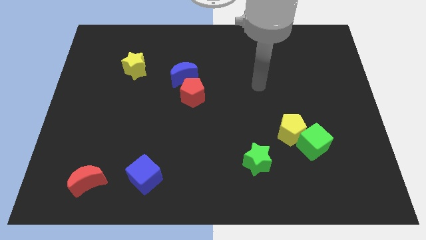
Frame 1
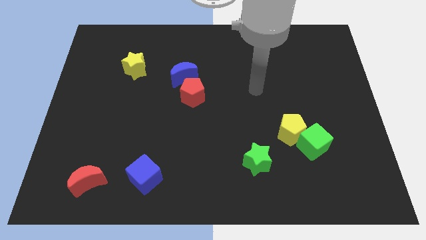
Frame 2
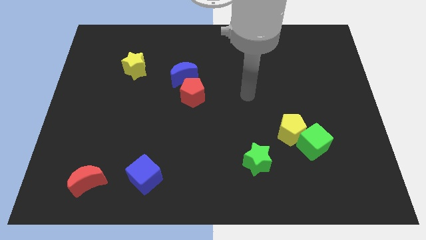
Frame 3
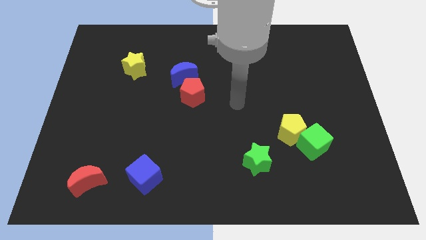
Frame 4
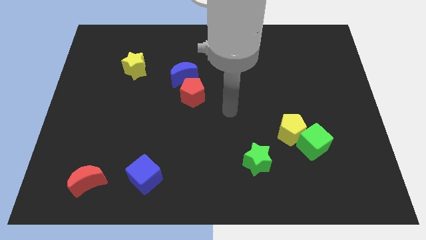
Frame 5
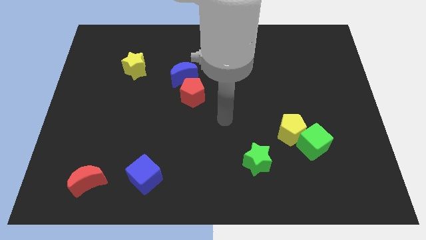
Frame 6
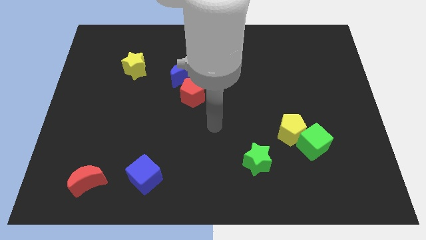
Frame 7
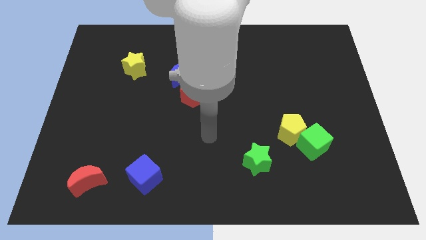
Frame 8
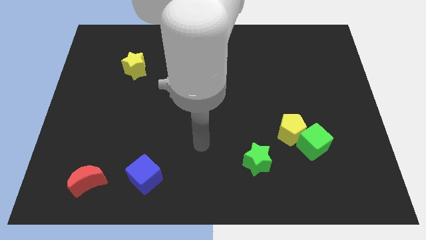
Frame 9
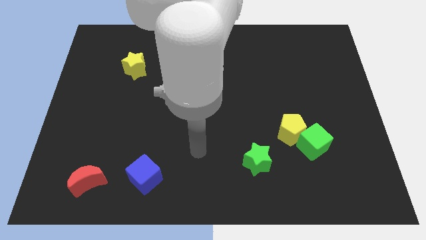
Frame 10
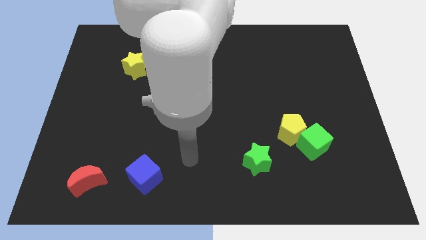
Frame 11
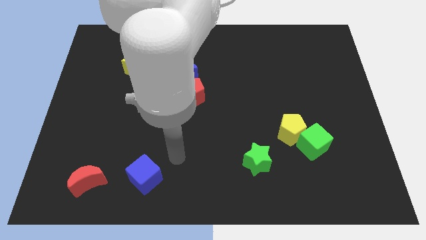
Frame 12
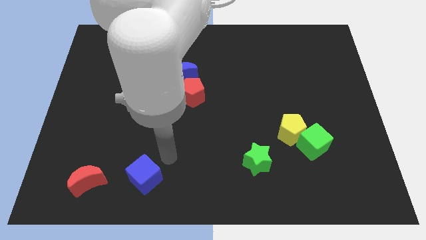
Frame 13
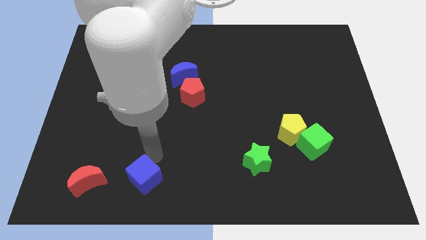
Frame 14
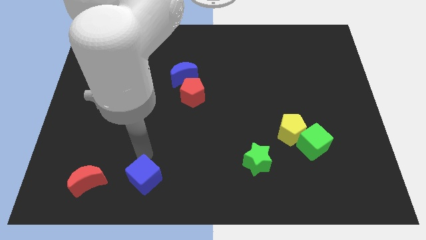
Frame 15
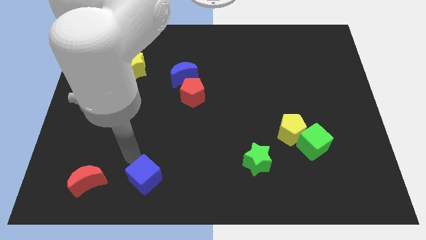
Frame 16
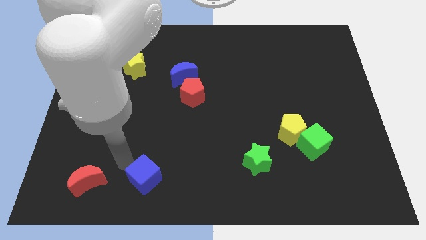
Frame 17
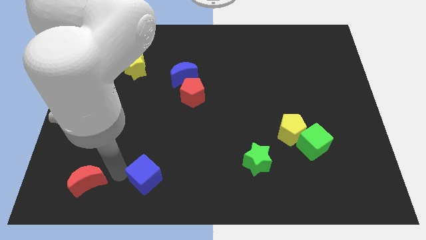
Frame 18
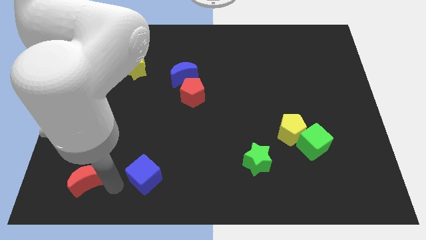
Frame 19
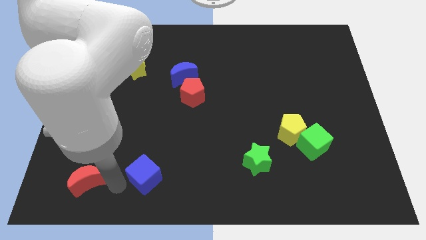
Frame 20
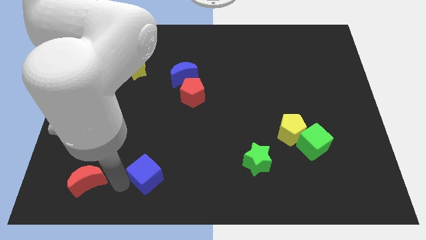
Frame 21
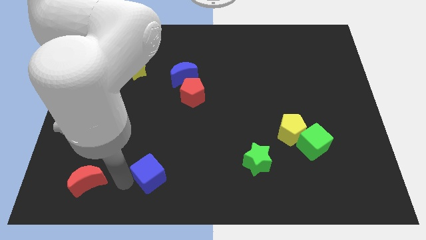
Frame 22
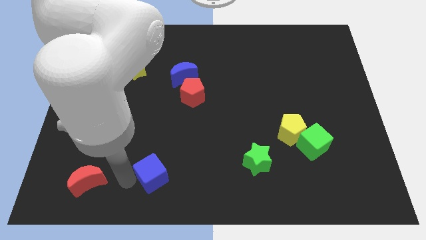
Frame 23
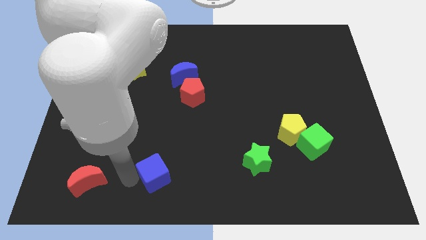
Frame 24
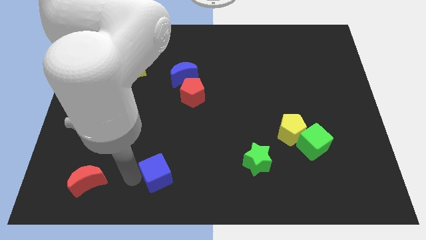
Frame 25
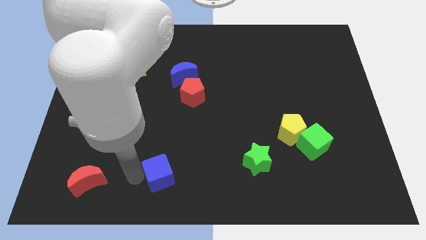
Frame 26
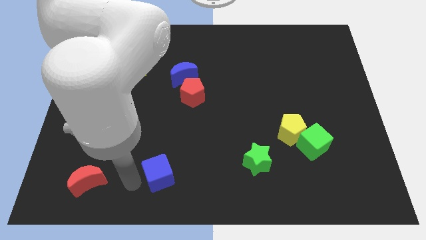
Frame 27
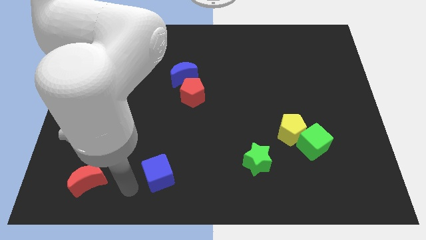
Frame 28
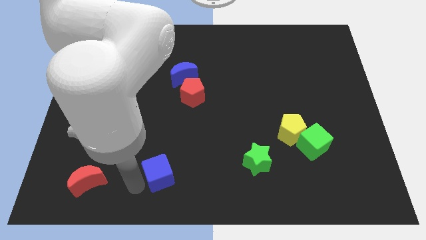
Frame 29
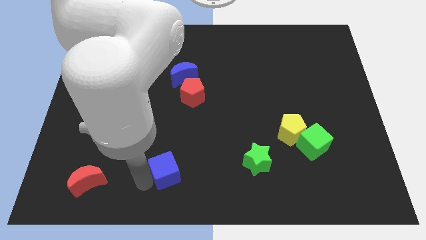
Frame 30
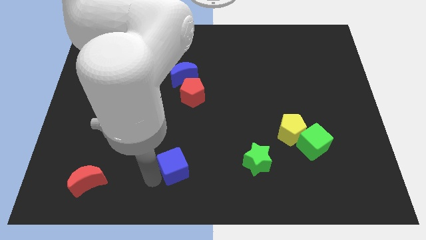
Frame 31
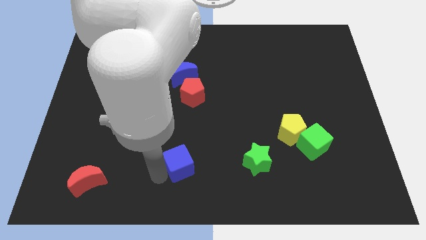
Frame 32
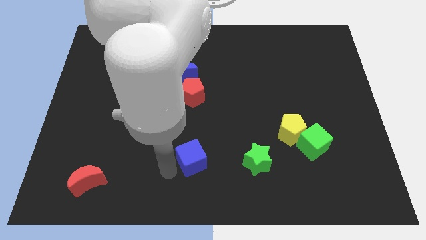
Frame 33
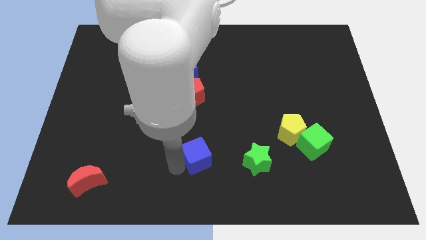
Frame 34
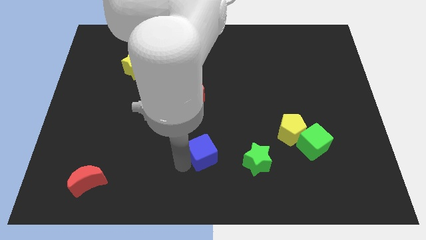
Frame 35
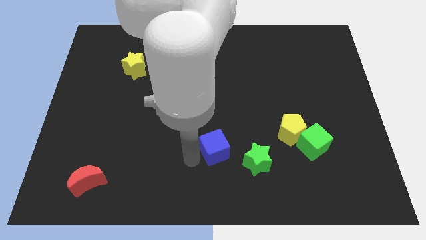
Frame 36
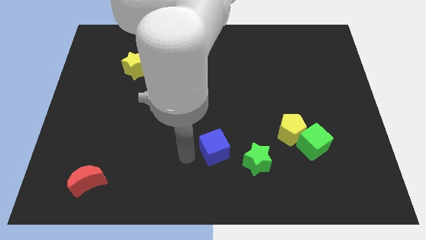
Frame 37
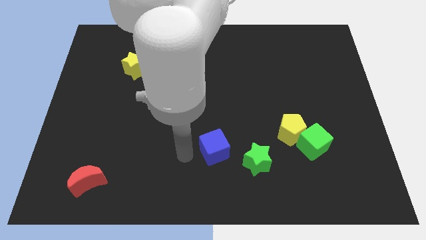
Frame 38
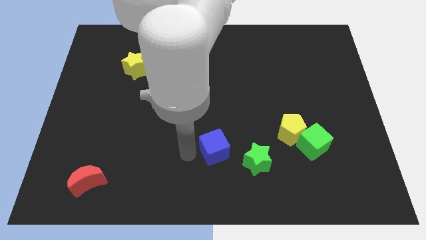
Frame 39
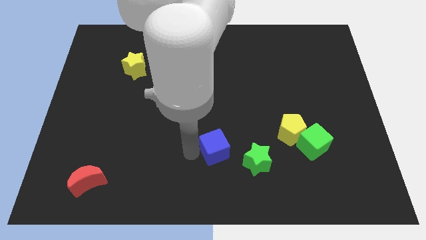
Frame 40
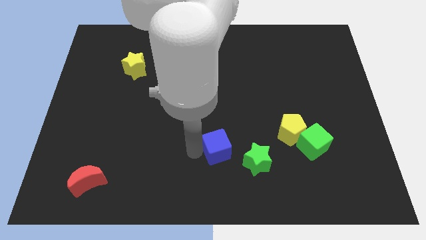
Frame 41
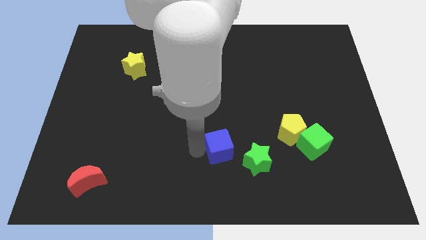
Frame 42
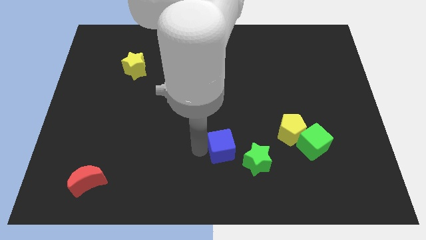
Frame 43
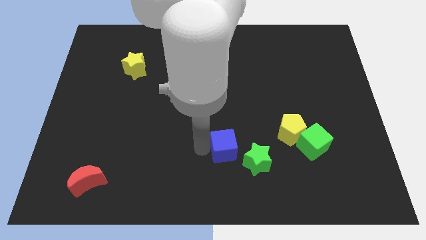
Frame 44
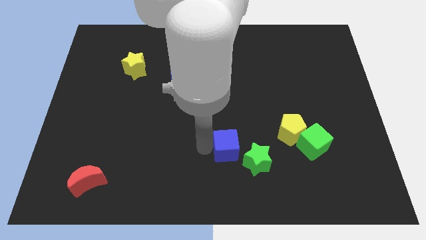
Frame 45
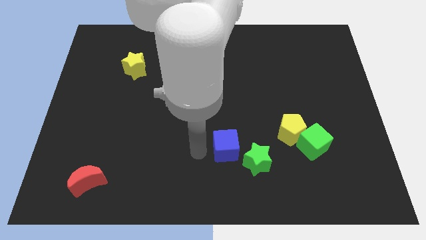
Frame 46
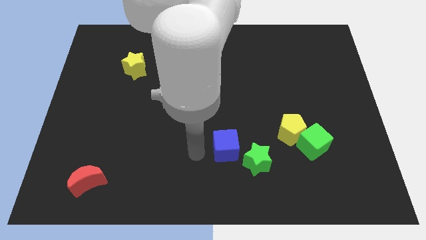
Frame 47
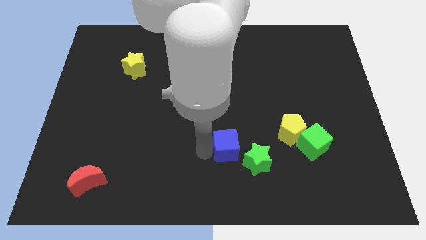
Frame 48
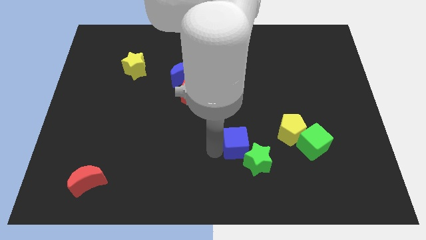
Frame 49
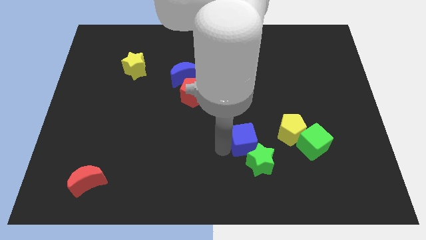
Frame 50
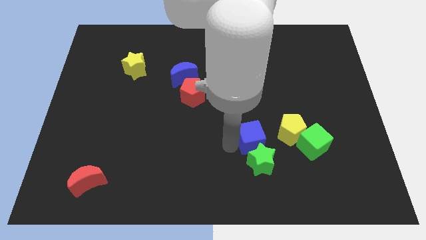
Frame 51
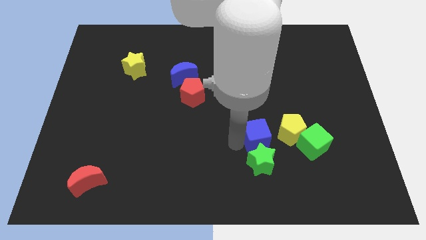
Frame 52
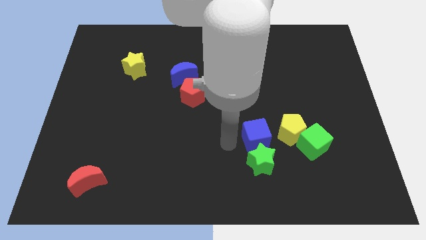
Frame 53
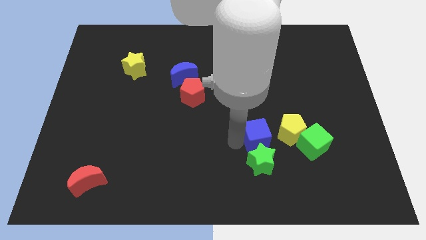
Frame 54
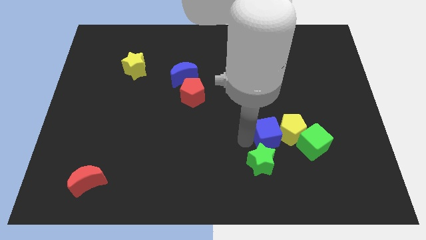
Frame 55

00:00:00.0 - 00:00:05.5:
push the blue cube towards the yellow pentagon

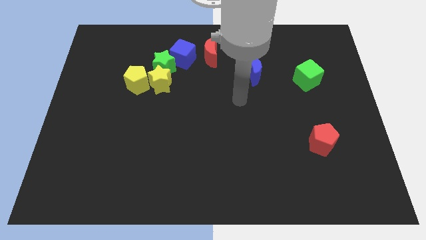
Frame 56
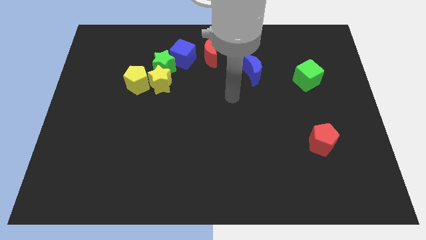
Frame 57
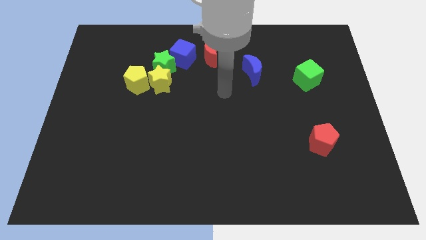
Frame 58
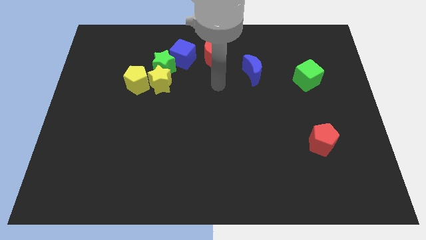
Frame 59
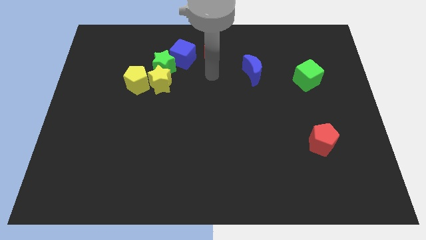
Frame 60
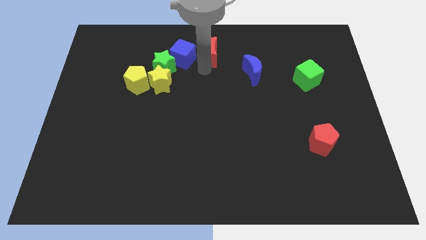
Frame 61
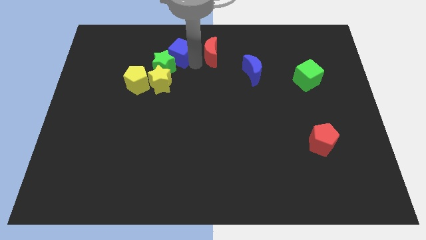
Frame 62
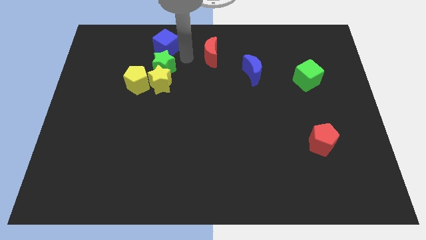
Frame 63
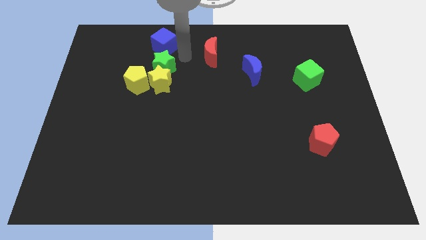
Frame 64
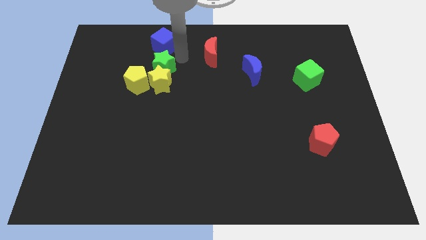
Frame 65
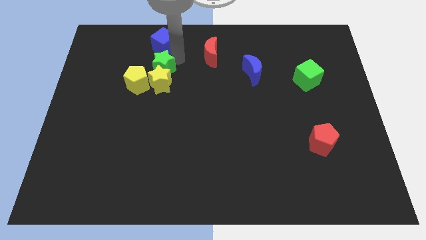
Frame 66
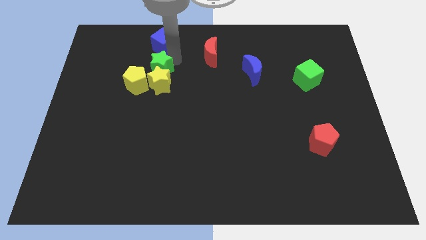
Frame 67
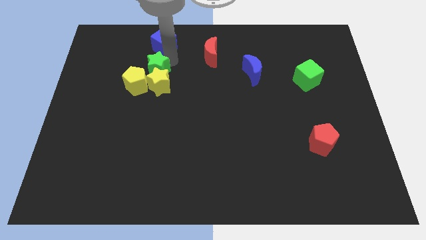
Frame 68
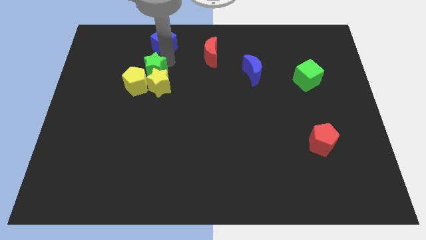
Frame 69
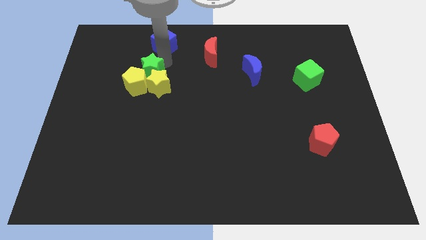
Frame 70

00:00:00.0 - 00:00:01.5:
move the green star close to the yellow pentagon

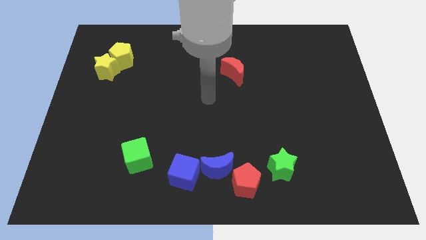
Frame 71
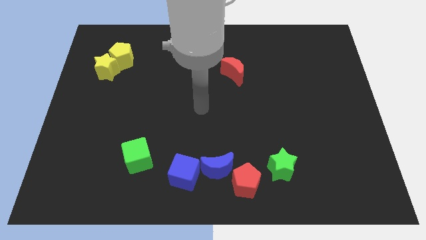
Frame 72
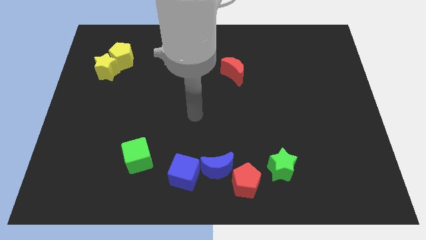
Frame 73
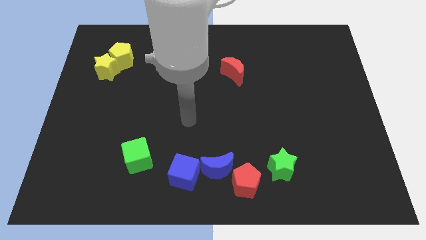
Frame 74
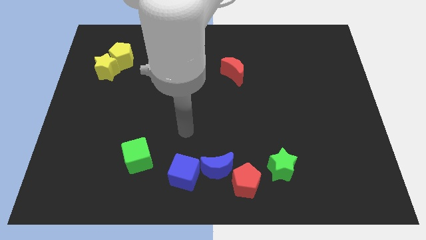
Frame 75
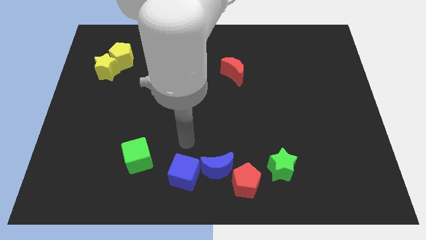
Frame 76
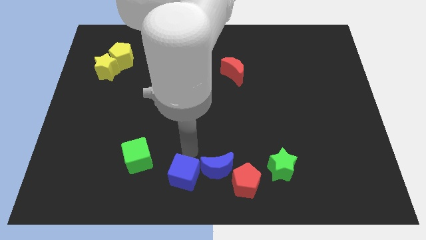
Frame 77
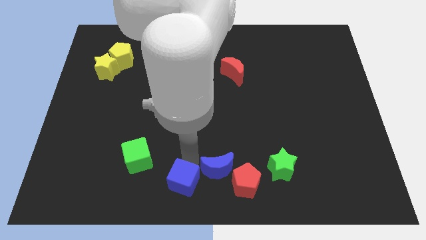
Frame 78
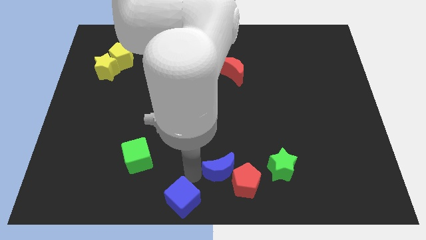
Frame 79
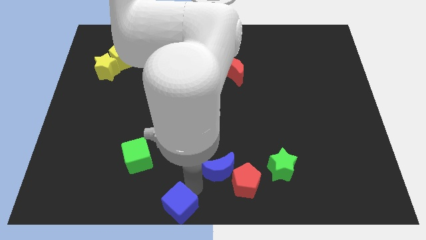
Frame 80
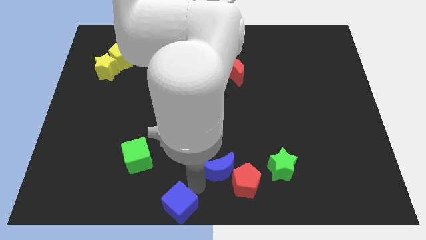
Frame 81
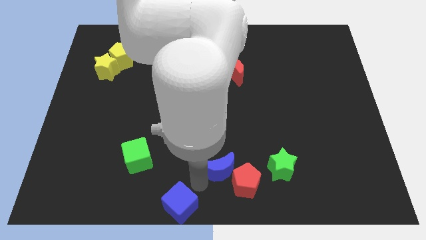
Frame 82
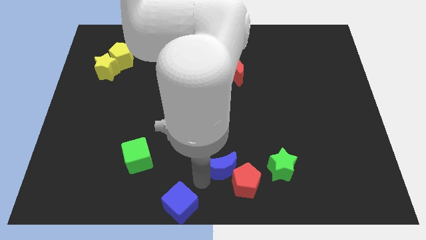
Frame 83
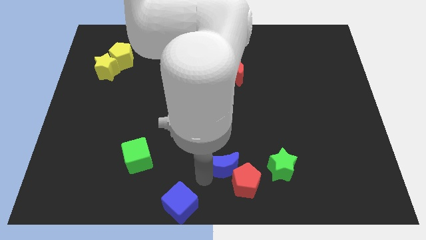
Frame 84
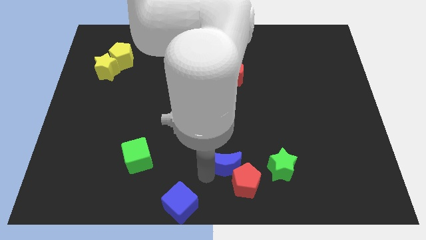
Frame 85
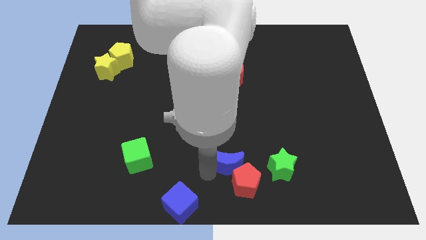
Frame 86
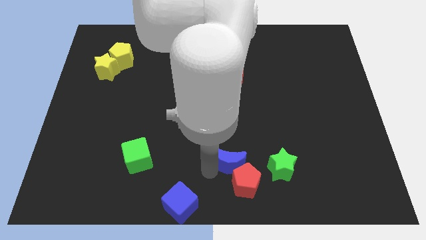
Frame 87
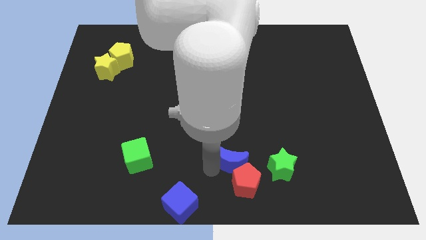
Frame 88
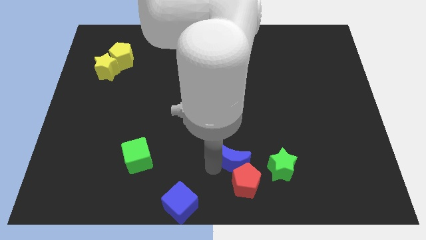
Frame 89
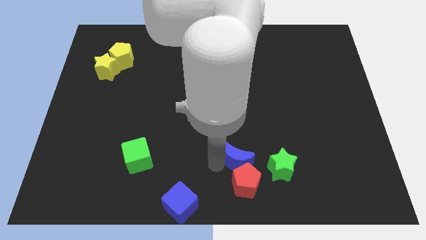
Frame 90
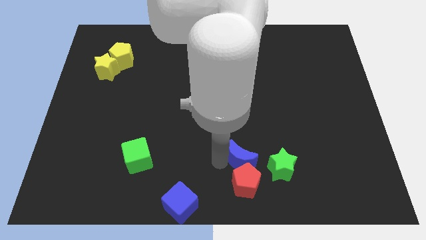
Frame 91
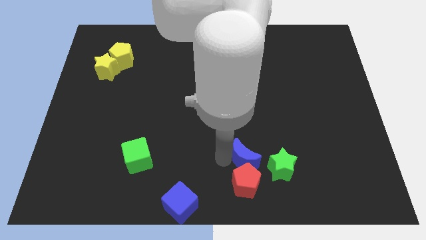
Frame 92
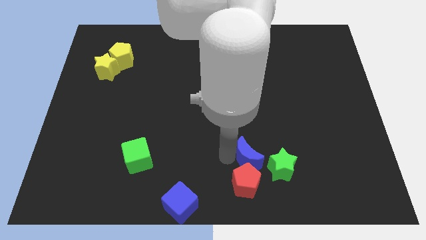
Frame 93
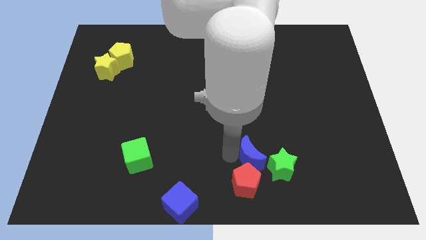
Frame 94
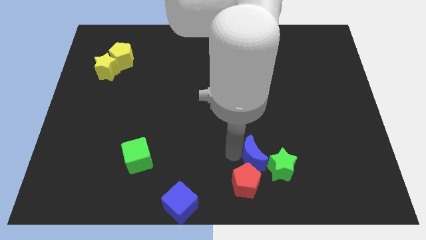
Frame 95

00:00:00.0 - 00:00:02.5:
slide the blue moon next to the green star
